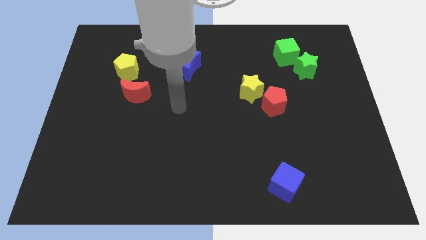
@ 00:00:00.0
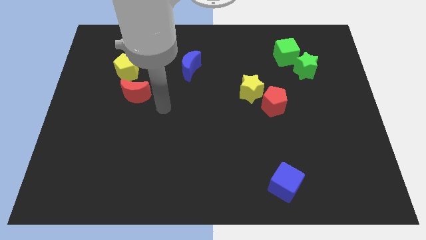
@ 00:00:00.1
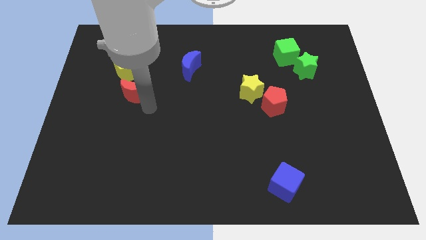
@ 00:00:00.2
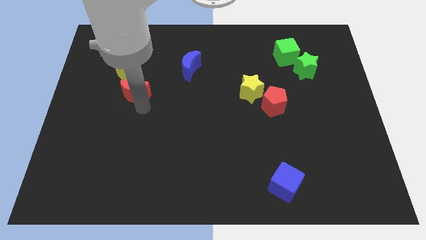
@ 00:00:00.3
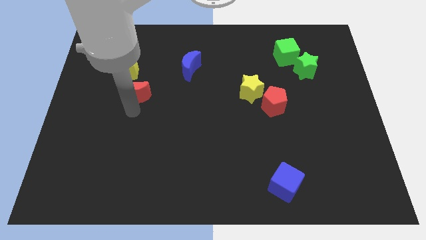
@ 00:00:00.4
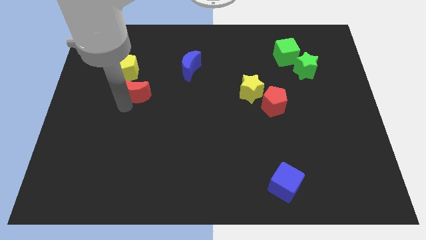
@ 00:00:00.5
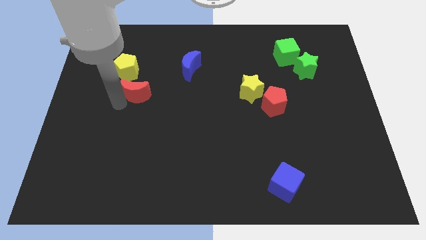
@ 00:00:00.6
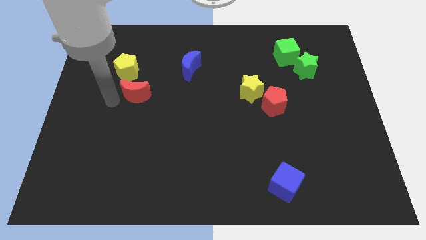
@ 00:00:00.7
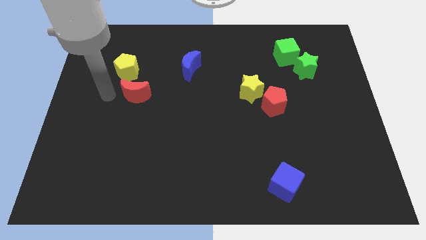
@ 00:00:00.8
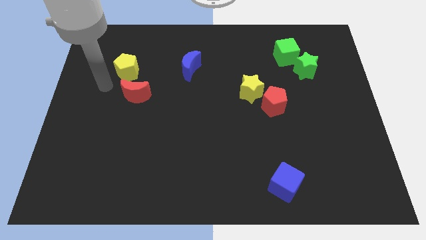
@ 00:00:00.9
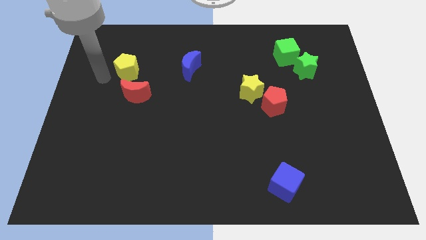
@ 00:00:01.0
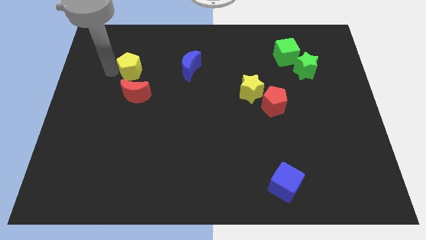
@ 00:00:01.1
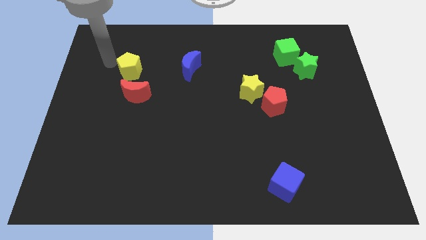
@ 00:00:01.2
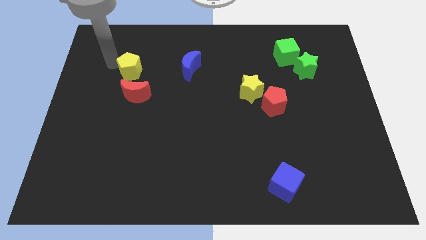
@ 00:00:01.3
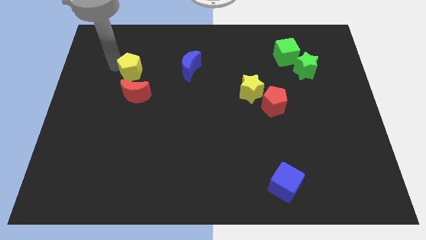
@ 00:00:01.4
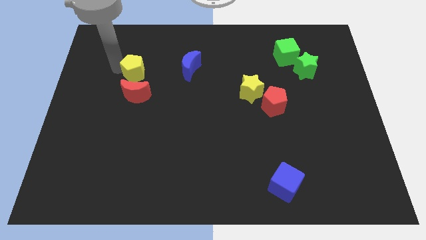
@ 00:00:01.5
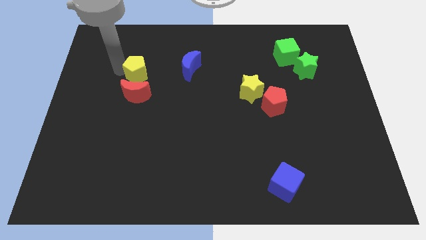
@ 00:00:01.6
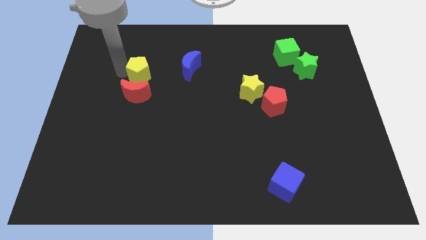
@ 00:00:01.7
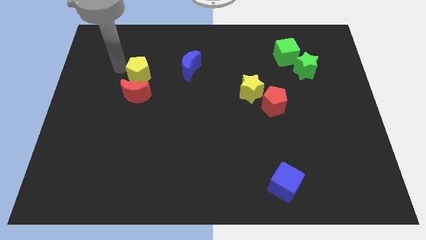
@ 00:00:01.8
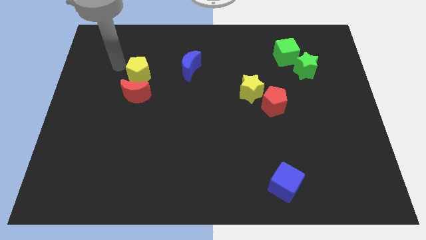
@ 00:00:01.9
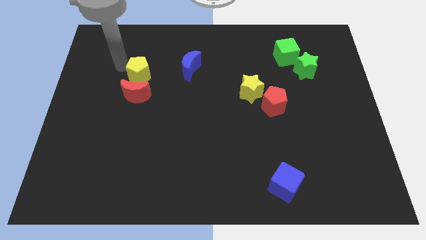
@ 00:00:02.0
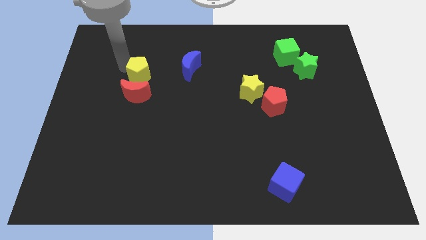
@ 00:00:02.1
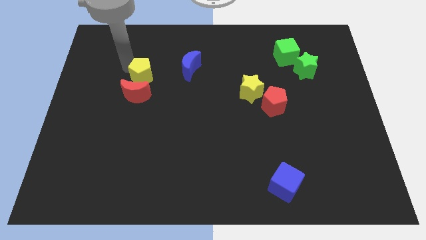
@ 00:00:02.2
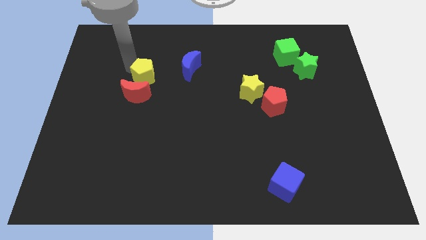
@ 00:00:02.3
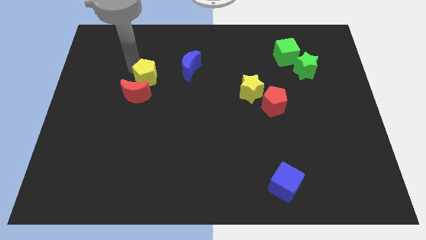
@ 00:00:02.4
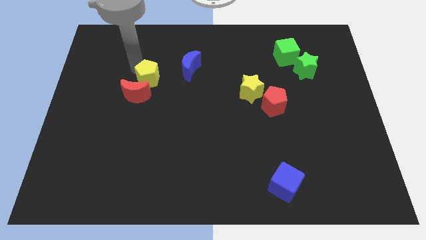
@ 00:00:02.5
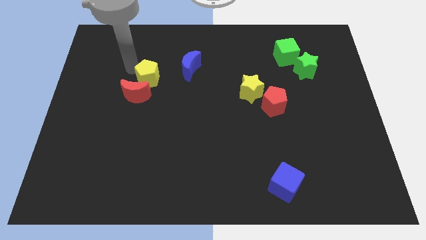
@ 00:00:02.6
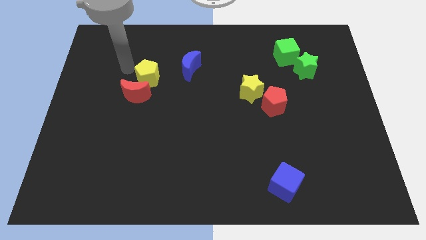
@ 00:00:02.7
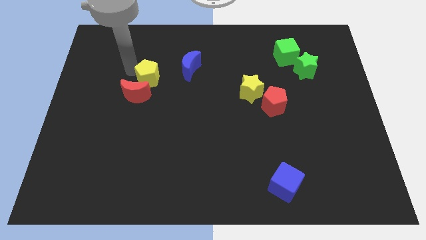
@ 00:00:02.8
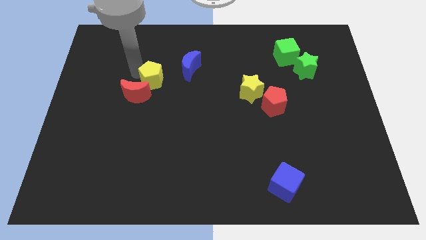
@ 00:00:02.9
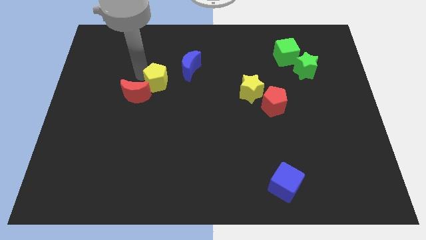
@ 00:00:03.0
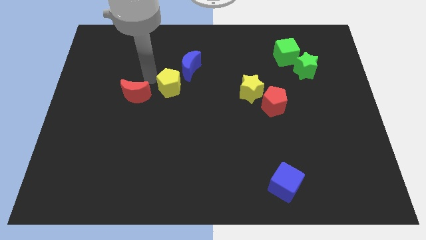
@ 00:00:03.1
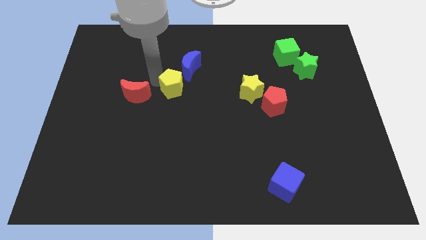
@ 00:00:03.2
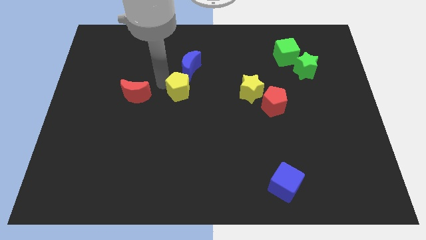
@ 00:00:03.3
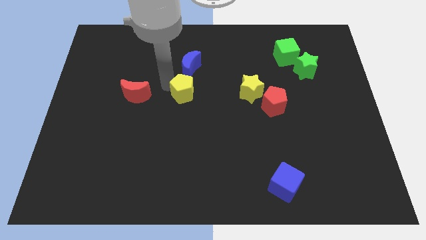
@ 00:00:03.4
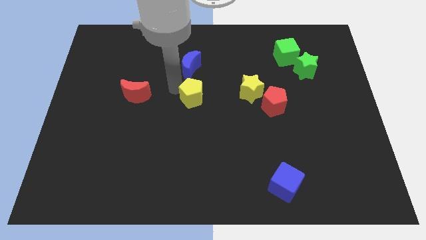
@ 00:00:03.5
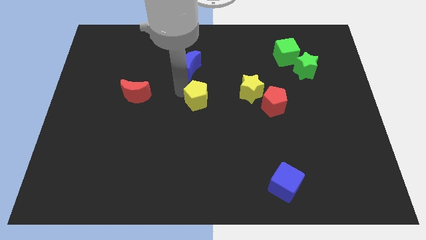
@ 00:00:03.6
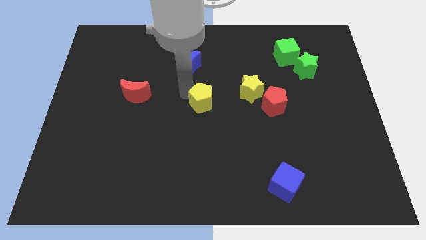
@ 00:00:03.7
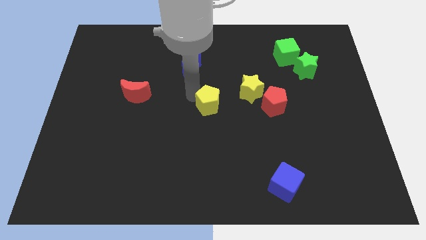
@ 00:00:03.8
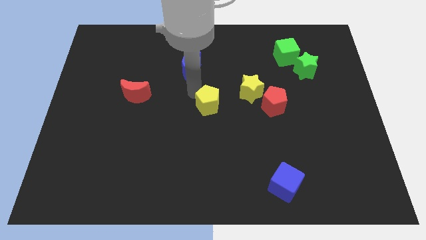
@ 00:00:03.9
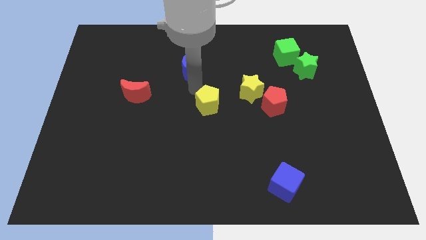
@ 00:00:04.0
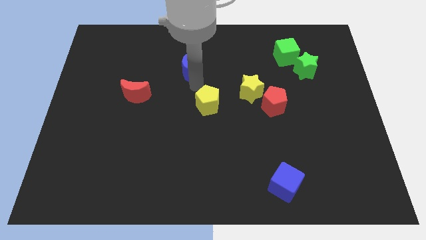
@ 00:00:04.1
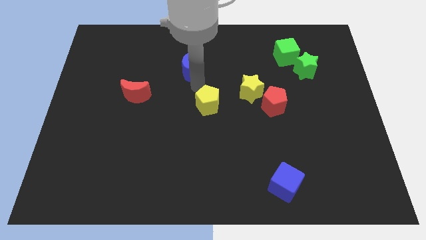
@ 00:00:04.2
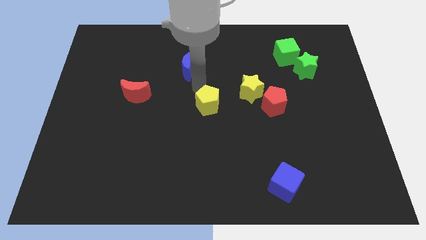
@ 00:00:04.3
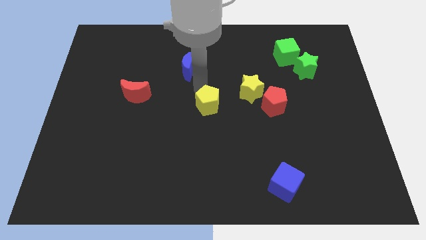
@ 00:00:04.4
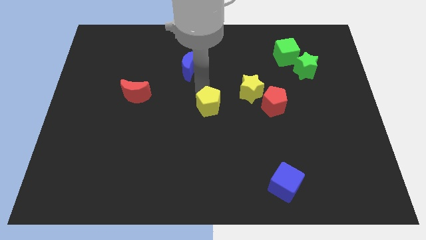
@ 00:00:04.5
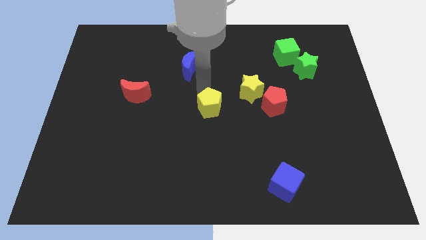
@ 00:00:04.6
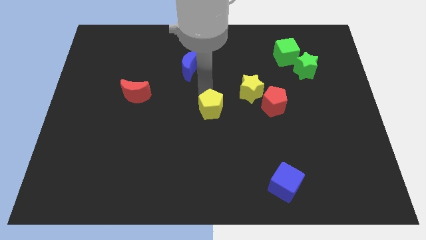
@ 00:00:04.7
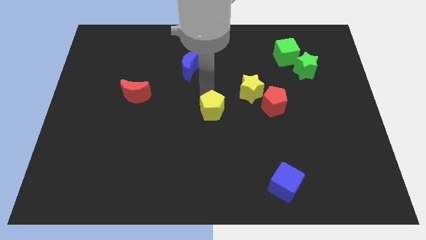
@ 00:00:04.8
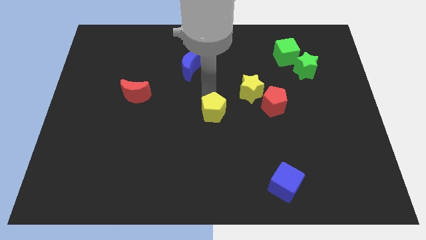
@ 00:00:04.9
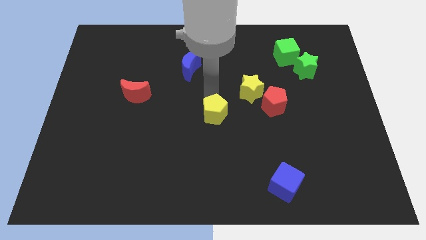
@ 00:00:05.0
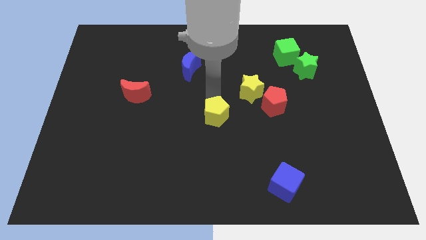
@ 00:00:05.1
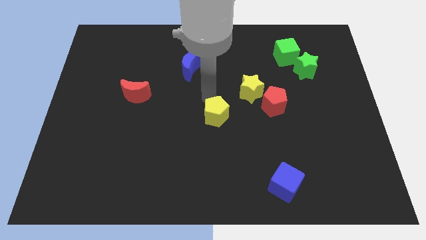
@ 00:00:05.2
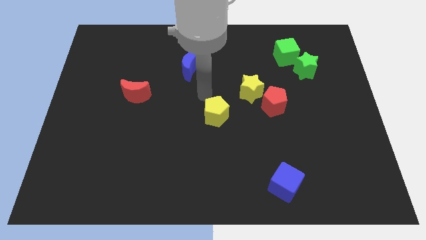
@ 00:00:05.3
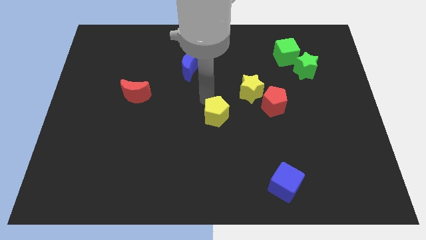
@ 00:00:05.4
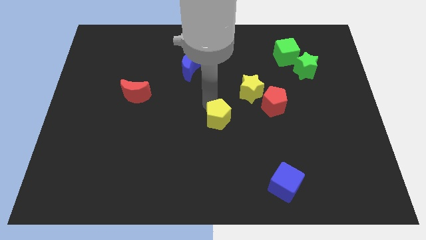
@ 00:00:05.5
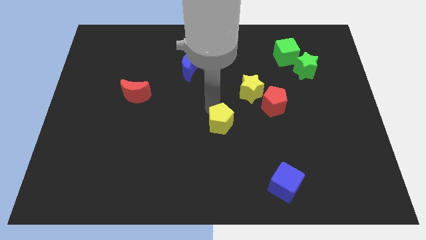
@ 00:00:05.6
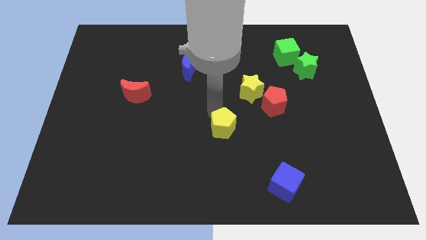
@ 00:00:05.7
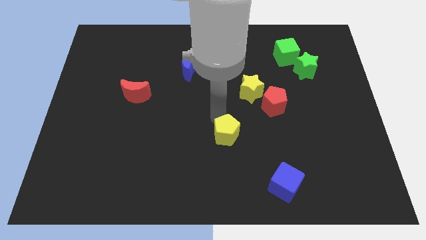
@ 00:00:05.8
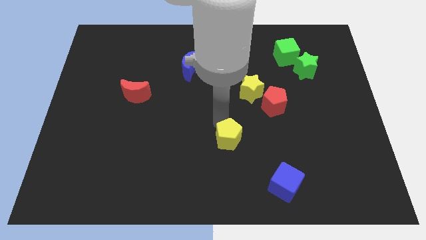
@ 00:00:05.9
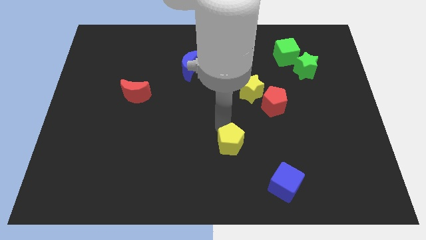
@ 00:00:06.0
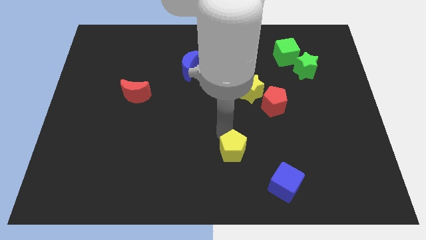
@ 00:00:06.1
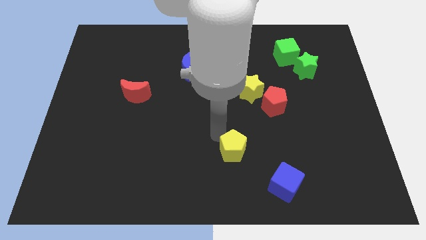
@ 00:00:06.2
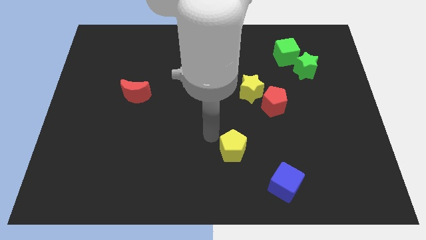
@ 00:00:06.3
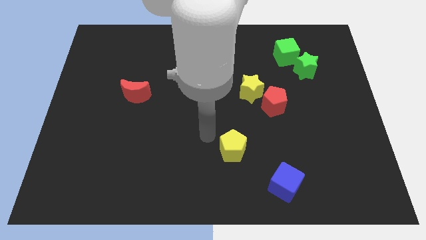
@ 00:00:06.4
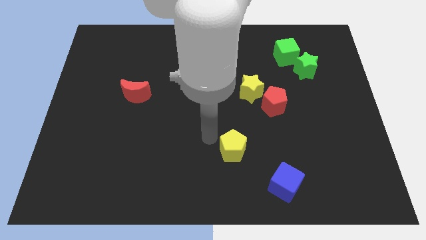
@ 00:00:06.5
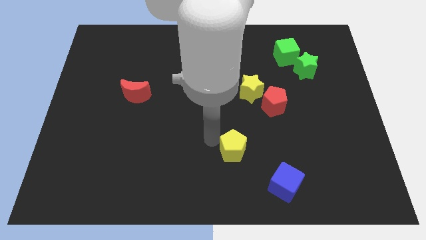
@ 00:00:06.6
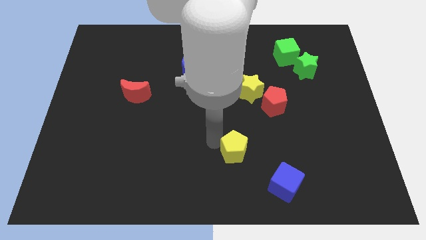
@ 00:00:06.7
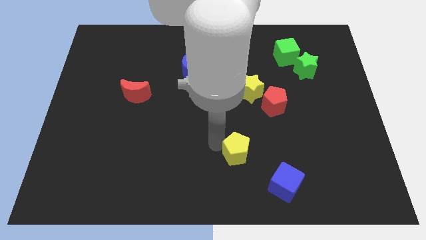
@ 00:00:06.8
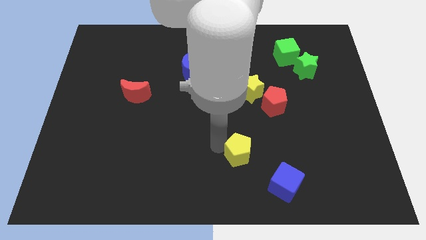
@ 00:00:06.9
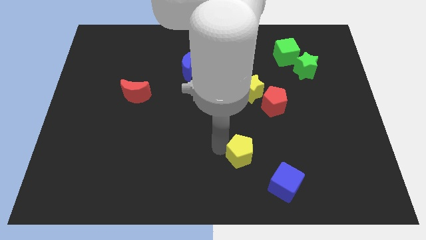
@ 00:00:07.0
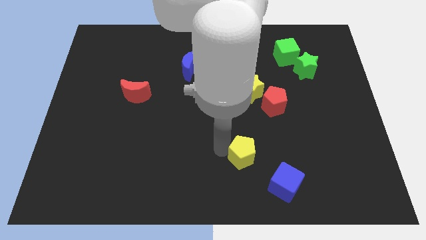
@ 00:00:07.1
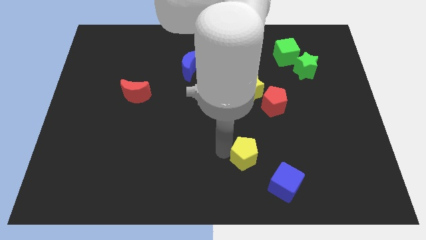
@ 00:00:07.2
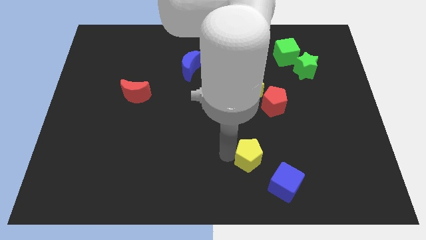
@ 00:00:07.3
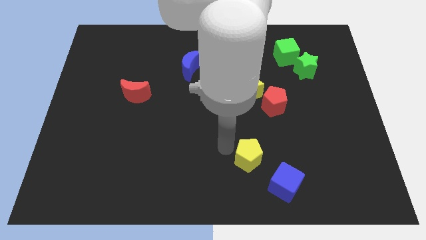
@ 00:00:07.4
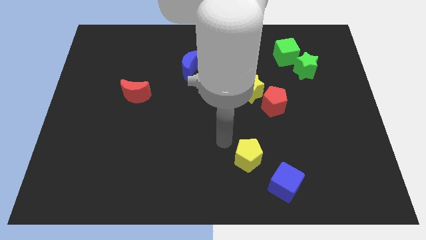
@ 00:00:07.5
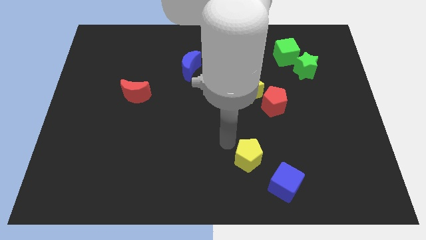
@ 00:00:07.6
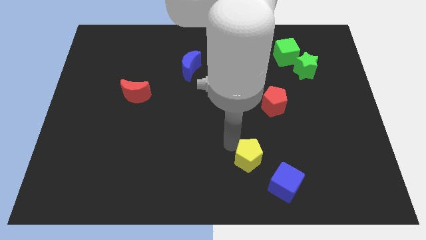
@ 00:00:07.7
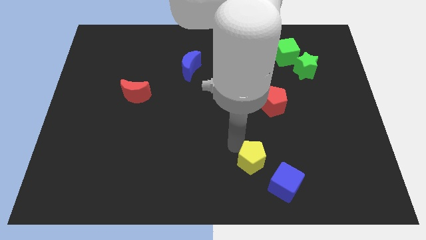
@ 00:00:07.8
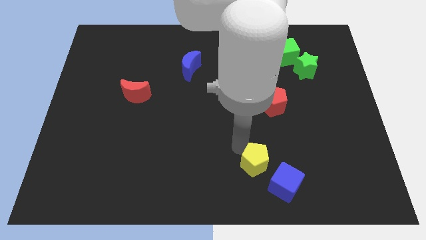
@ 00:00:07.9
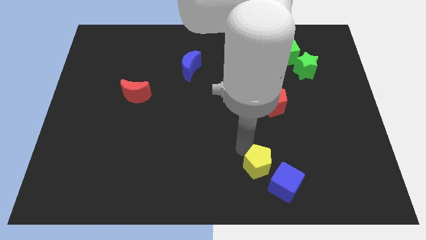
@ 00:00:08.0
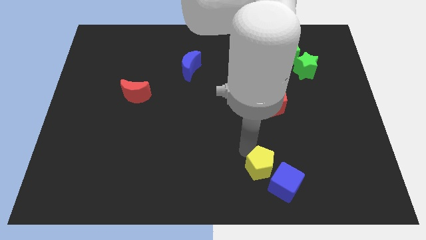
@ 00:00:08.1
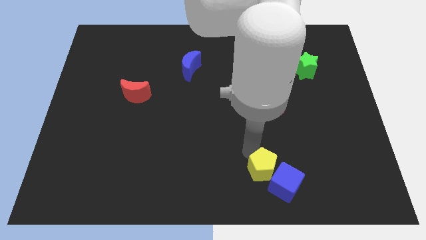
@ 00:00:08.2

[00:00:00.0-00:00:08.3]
move the yellow pentagon next to the blue cube
